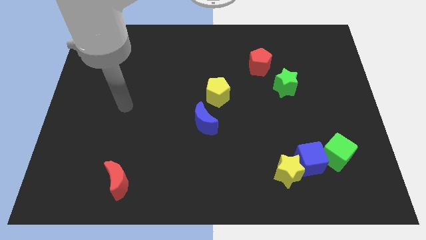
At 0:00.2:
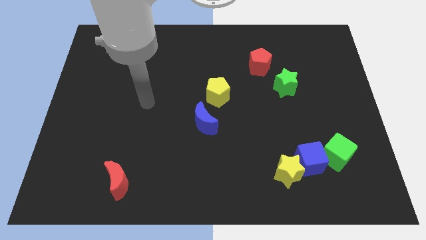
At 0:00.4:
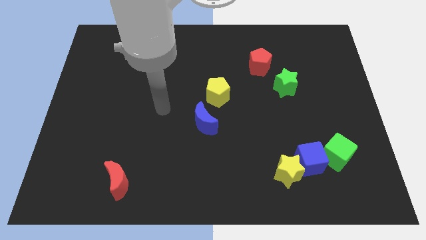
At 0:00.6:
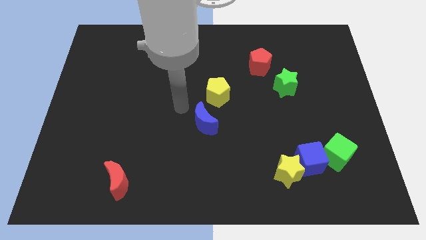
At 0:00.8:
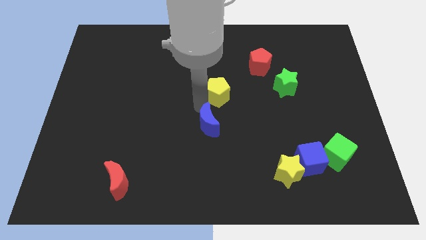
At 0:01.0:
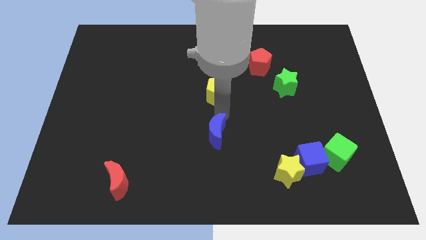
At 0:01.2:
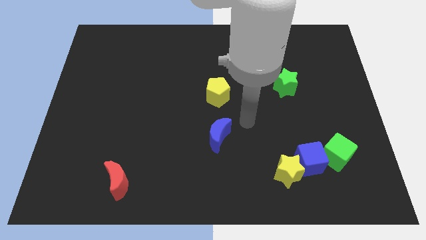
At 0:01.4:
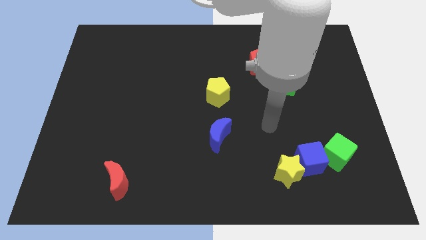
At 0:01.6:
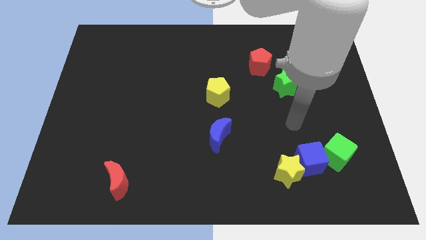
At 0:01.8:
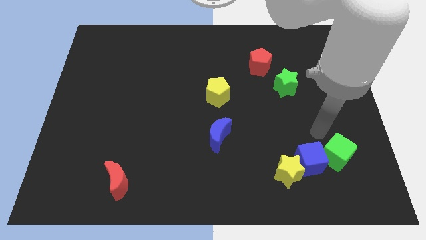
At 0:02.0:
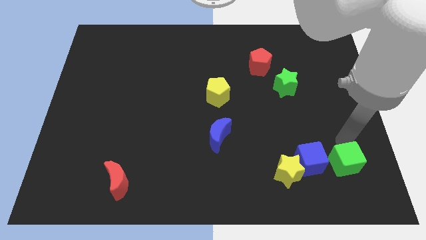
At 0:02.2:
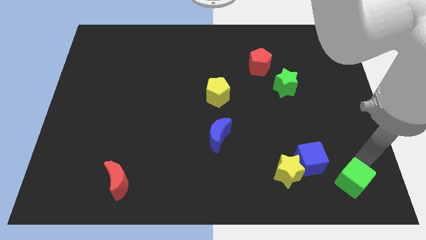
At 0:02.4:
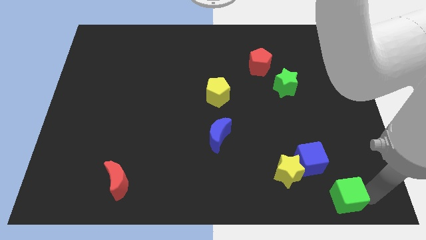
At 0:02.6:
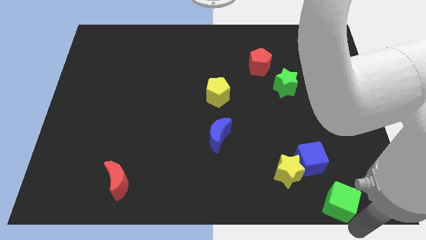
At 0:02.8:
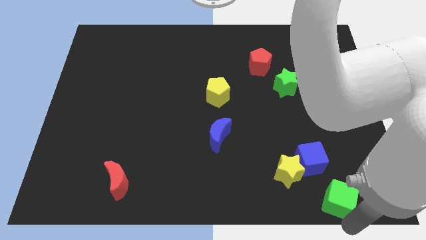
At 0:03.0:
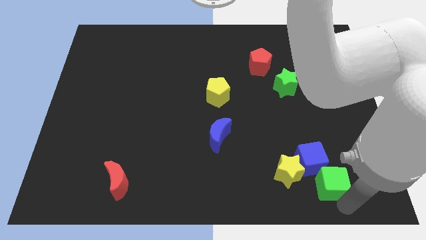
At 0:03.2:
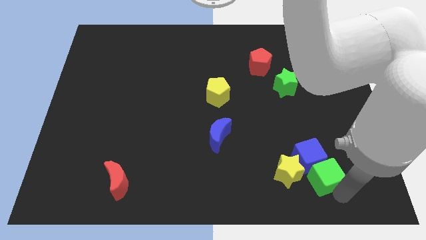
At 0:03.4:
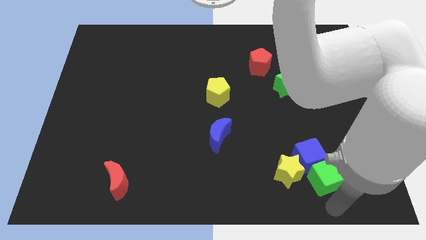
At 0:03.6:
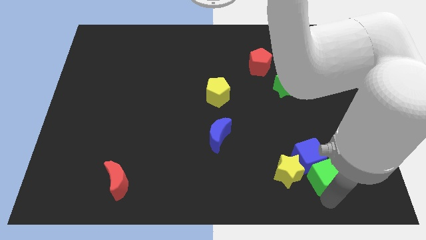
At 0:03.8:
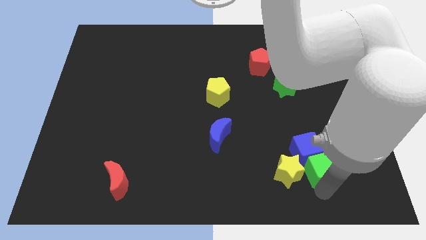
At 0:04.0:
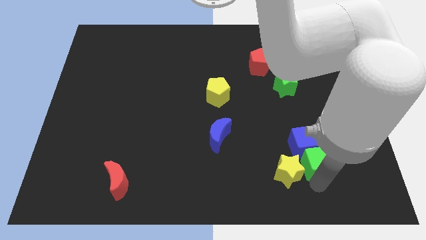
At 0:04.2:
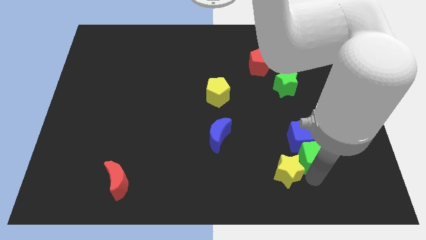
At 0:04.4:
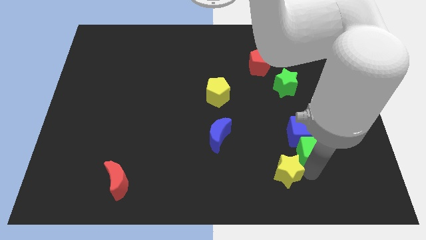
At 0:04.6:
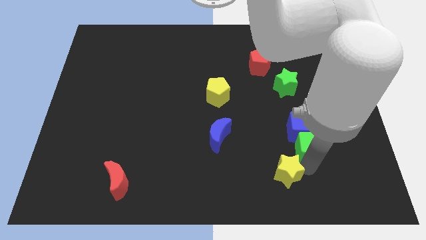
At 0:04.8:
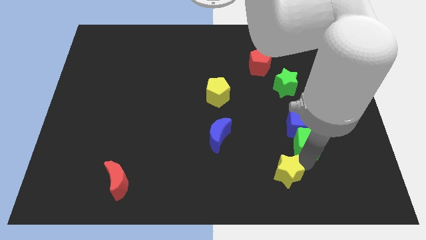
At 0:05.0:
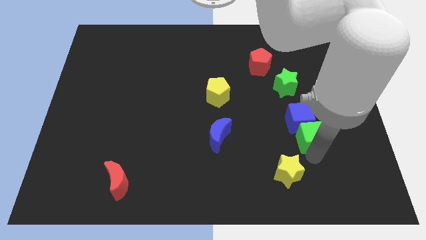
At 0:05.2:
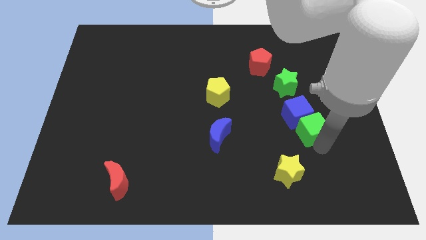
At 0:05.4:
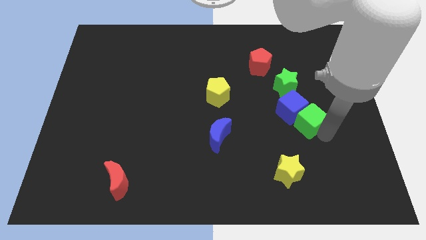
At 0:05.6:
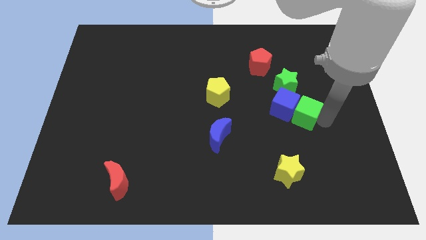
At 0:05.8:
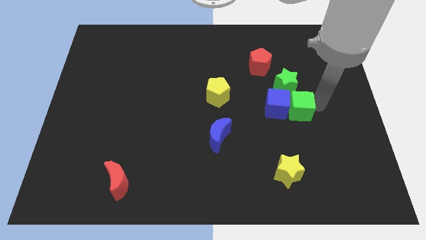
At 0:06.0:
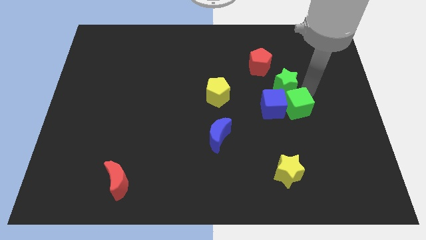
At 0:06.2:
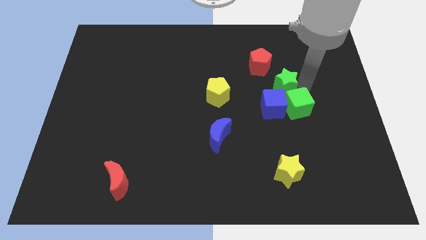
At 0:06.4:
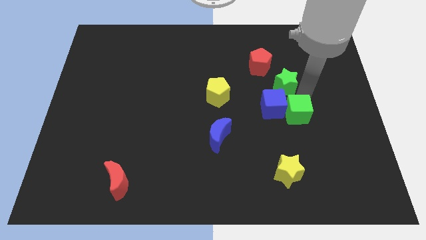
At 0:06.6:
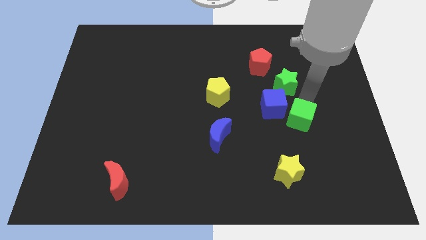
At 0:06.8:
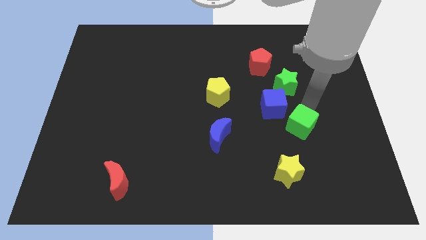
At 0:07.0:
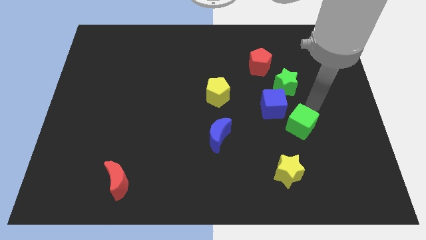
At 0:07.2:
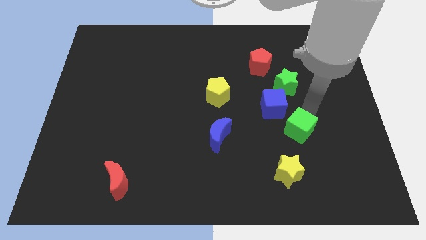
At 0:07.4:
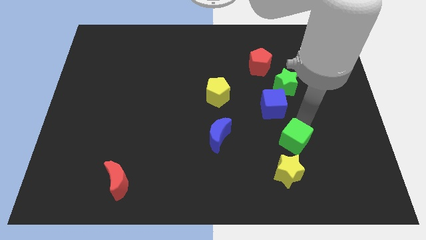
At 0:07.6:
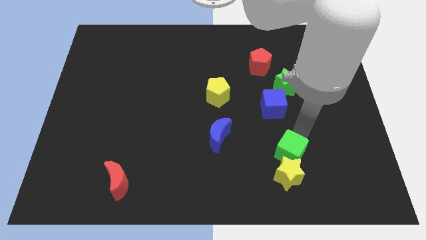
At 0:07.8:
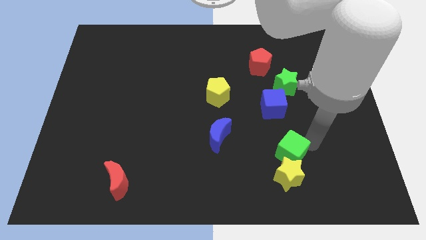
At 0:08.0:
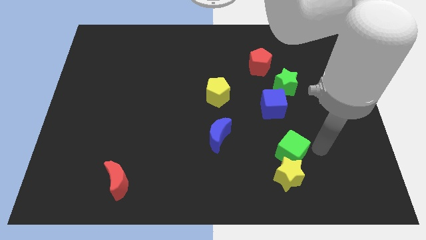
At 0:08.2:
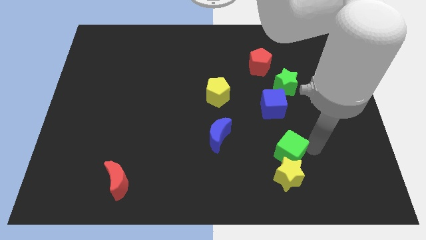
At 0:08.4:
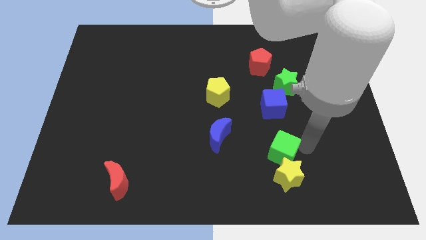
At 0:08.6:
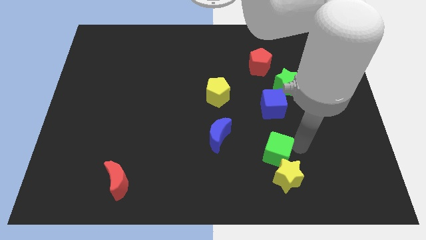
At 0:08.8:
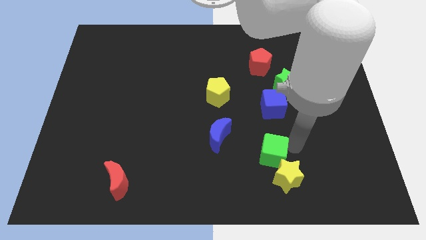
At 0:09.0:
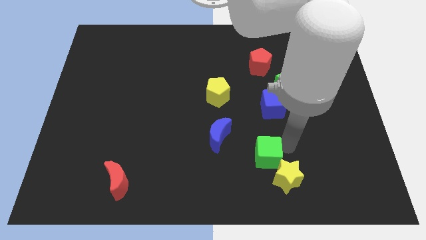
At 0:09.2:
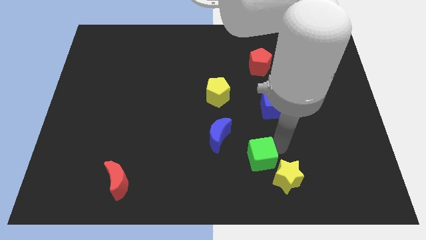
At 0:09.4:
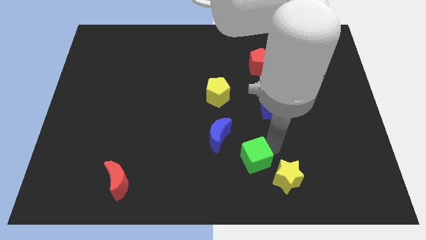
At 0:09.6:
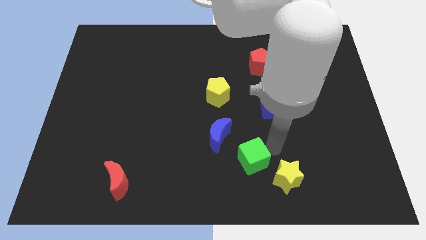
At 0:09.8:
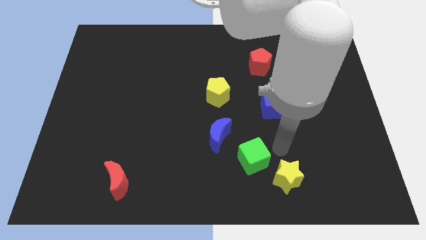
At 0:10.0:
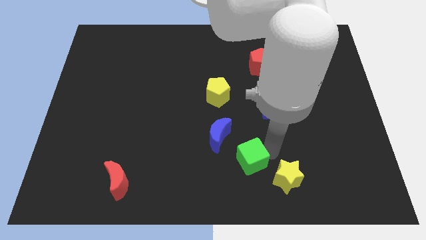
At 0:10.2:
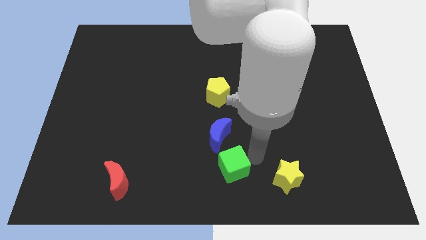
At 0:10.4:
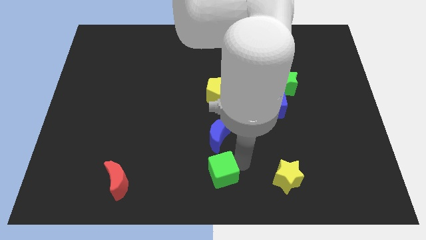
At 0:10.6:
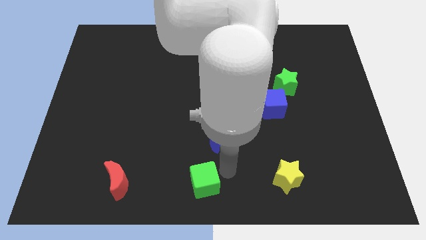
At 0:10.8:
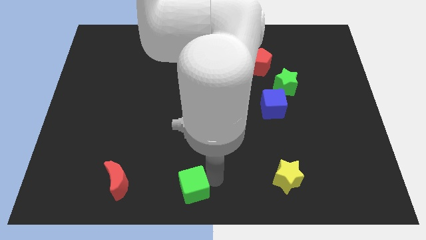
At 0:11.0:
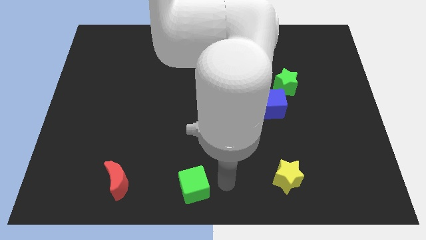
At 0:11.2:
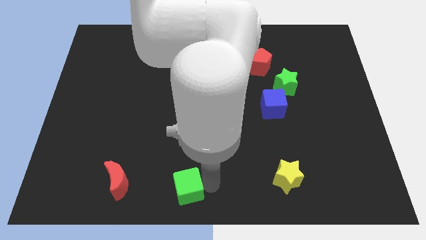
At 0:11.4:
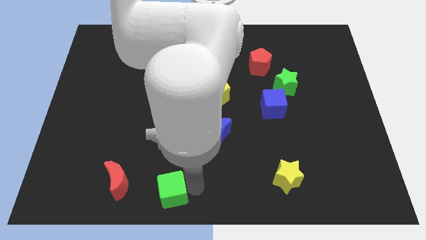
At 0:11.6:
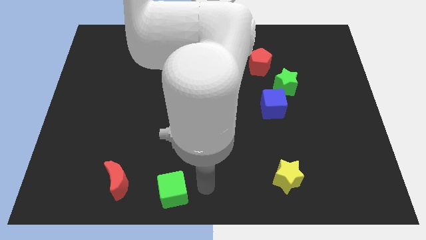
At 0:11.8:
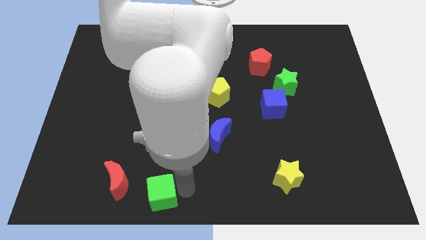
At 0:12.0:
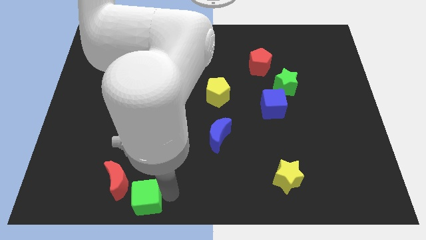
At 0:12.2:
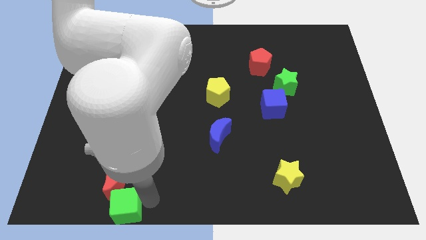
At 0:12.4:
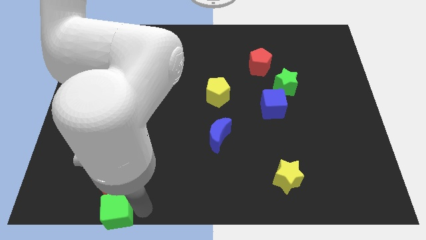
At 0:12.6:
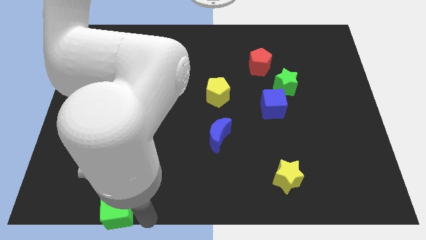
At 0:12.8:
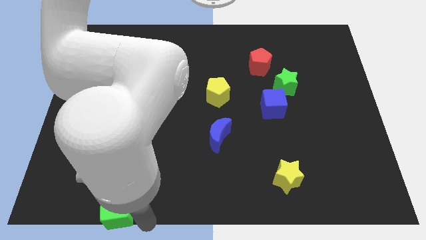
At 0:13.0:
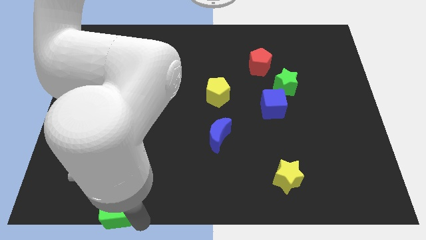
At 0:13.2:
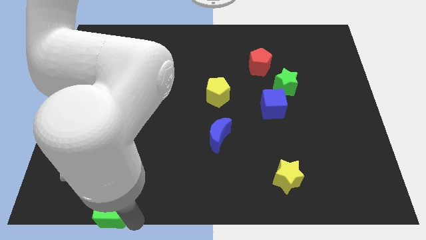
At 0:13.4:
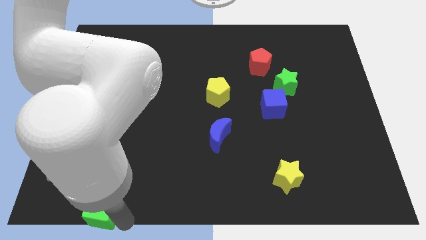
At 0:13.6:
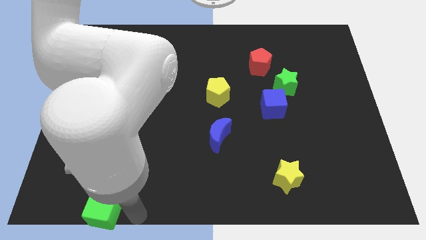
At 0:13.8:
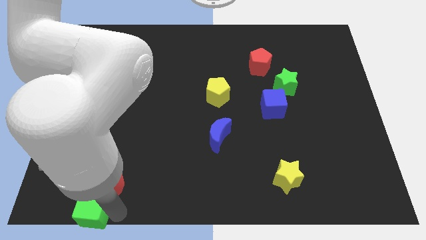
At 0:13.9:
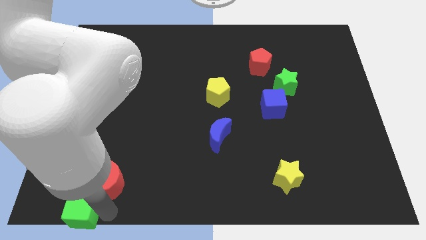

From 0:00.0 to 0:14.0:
put the green cube to the bottom left
